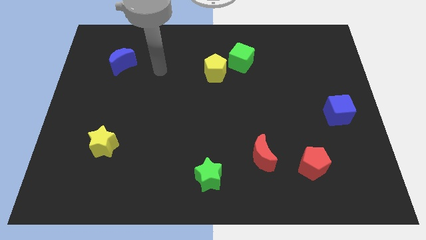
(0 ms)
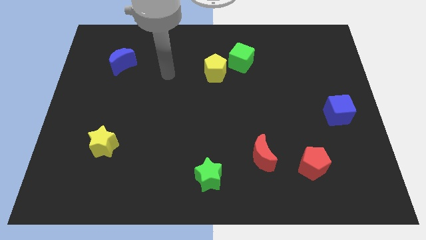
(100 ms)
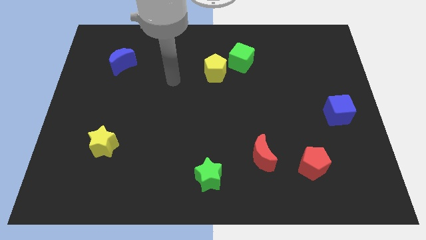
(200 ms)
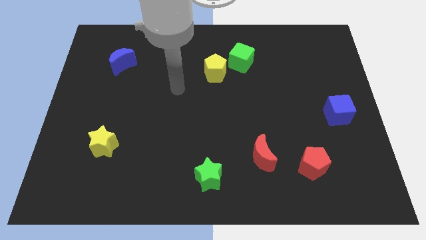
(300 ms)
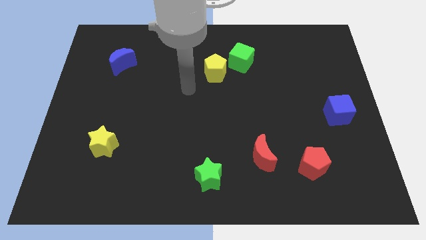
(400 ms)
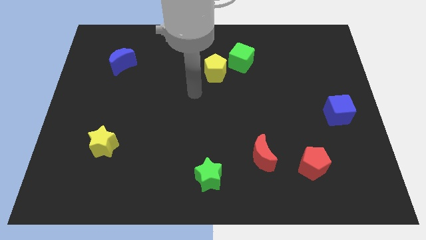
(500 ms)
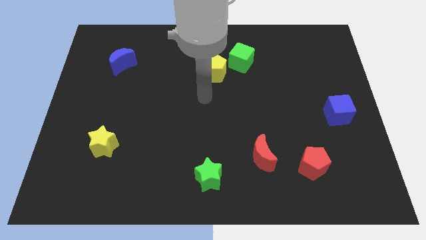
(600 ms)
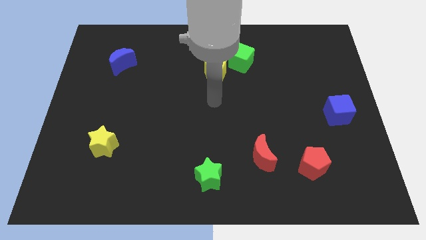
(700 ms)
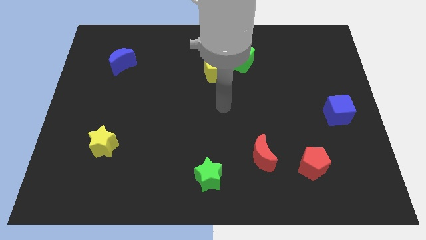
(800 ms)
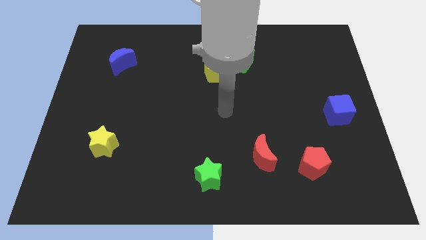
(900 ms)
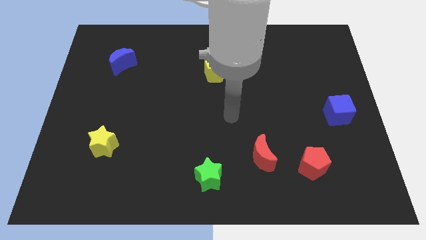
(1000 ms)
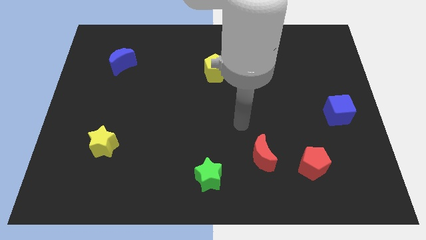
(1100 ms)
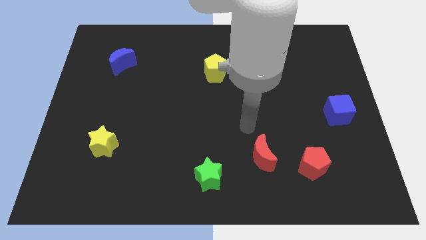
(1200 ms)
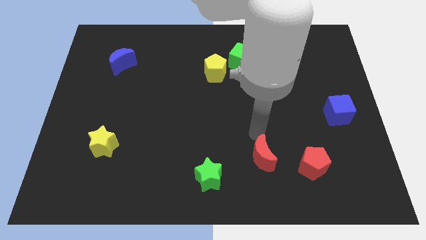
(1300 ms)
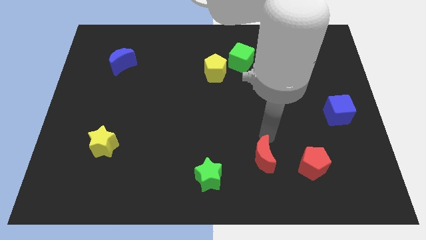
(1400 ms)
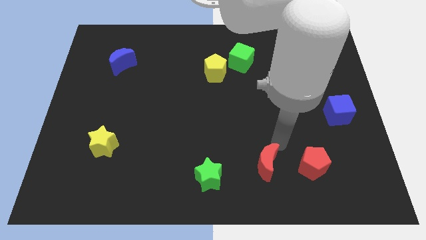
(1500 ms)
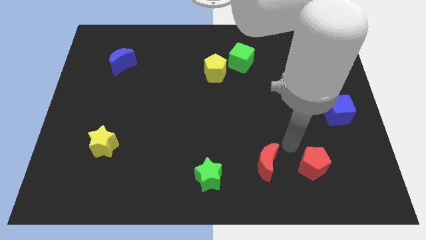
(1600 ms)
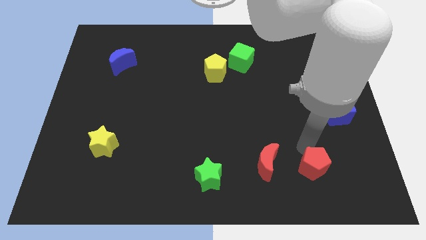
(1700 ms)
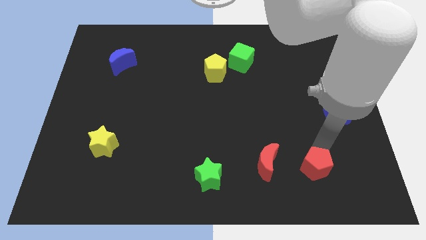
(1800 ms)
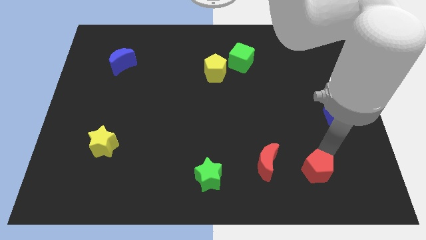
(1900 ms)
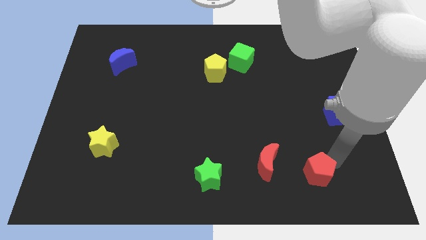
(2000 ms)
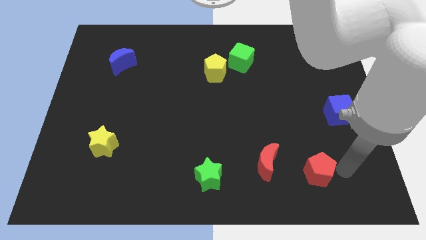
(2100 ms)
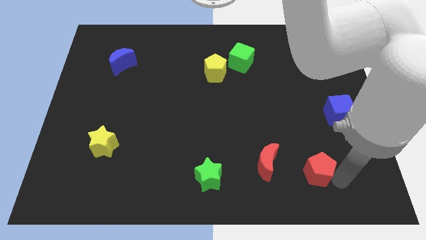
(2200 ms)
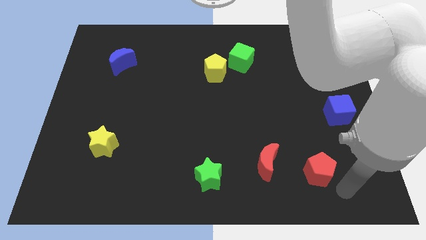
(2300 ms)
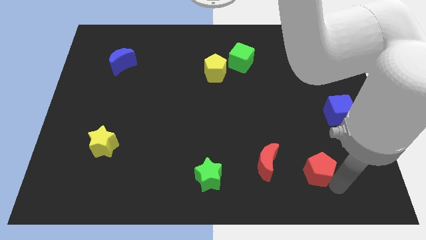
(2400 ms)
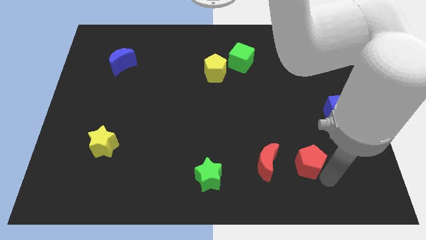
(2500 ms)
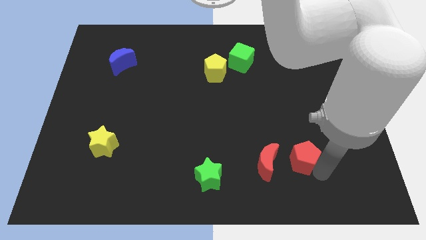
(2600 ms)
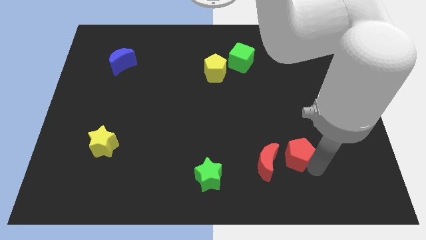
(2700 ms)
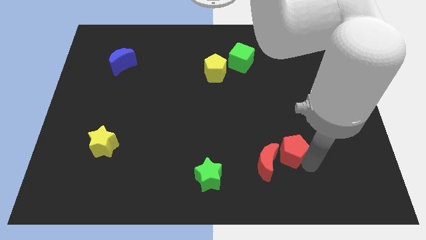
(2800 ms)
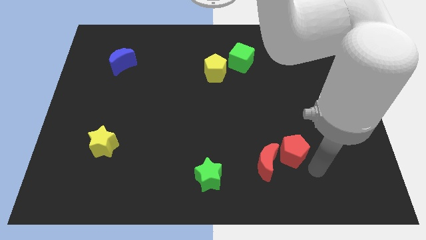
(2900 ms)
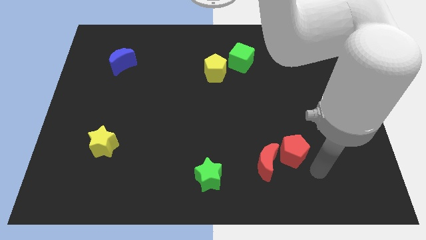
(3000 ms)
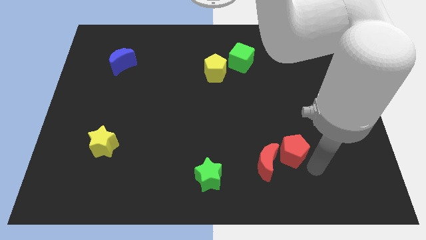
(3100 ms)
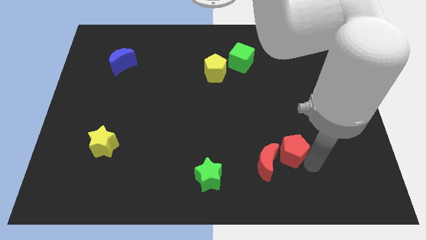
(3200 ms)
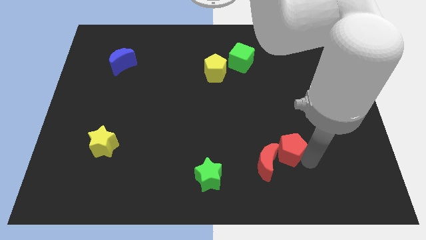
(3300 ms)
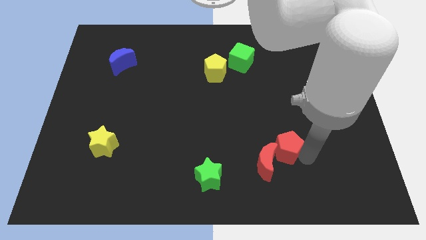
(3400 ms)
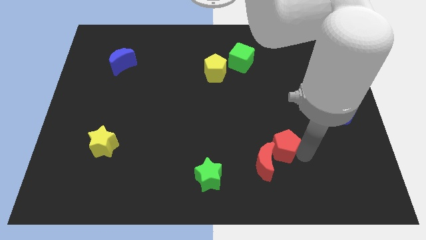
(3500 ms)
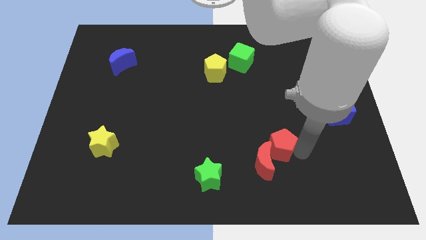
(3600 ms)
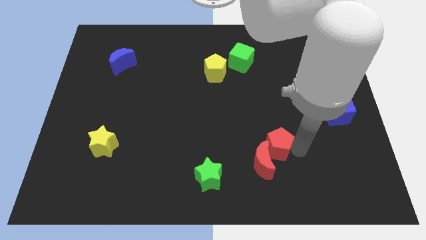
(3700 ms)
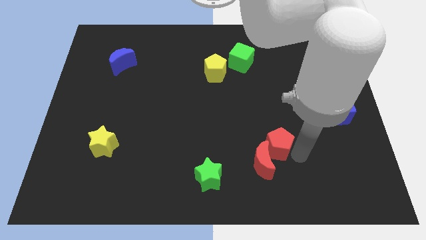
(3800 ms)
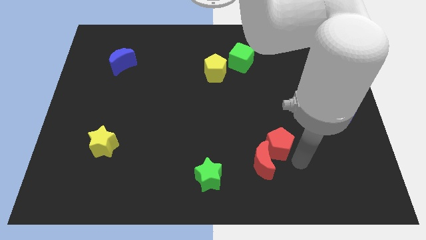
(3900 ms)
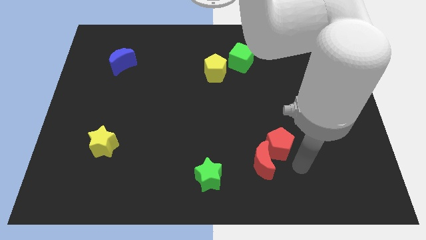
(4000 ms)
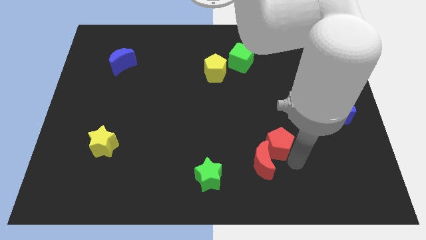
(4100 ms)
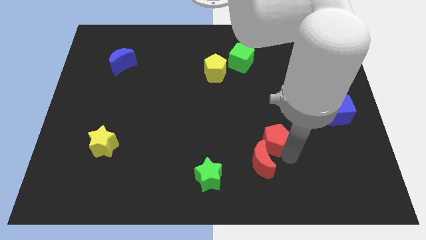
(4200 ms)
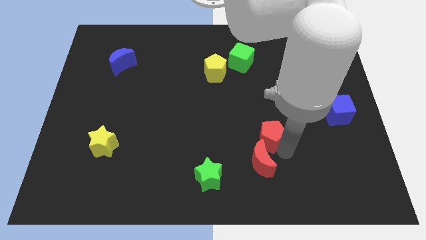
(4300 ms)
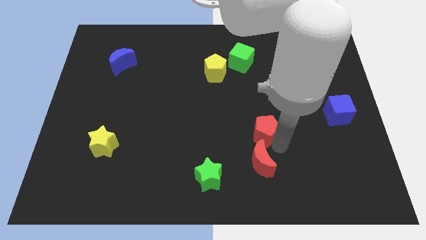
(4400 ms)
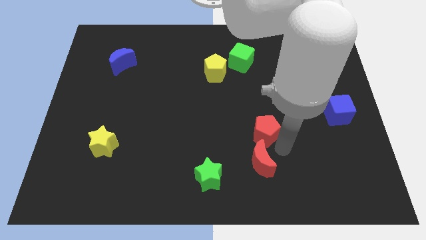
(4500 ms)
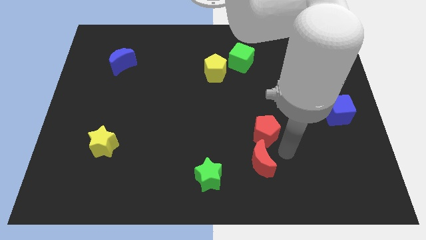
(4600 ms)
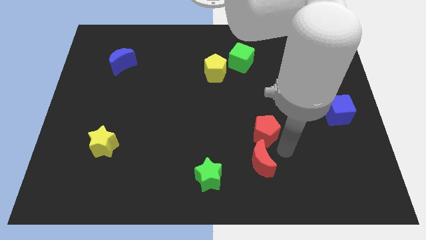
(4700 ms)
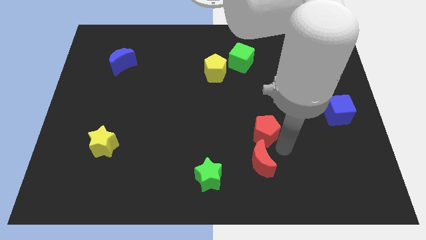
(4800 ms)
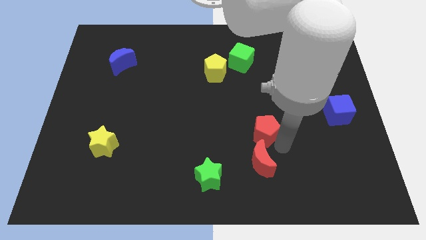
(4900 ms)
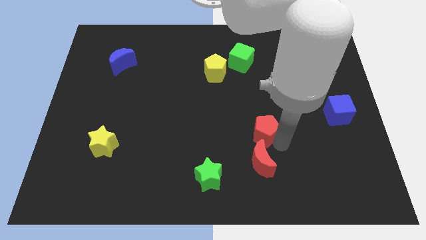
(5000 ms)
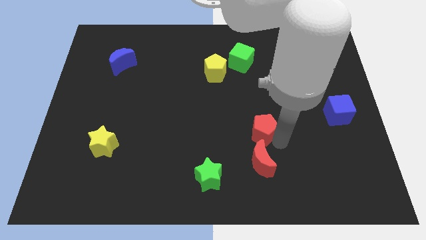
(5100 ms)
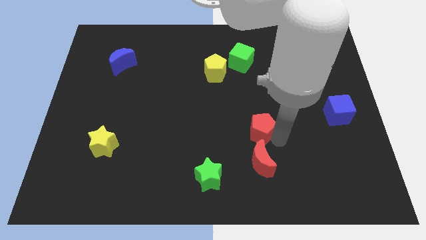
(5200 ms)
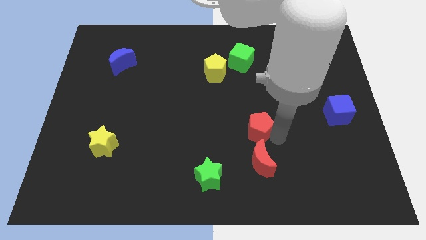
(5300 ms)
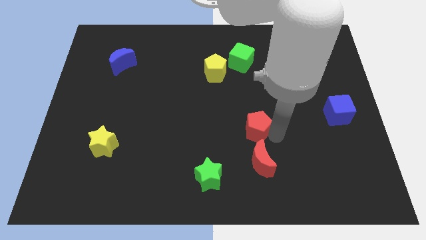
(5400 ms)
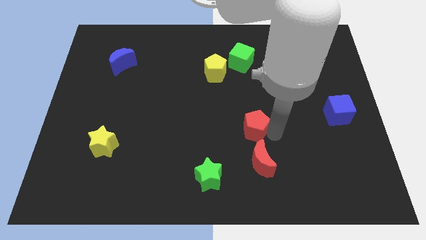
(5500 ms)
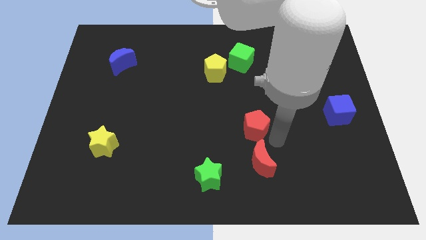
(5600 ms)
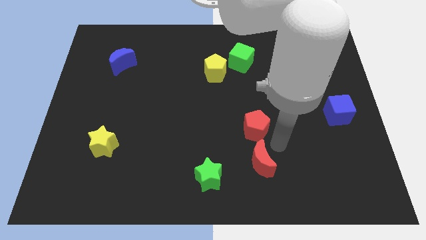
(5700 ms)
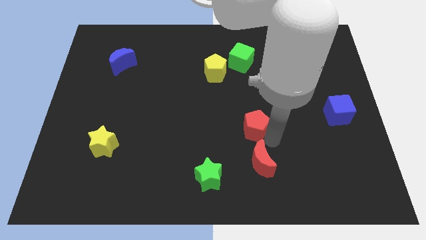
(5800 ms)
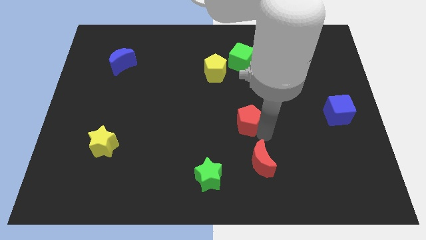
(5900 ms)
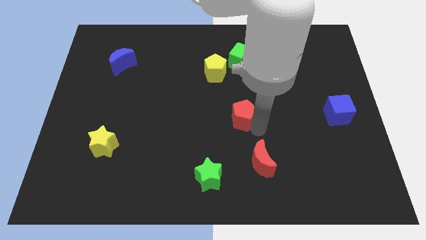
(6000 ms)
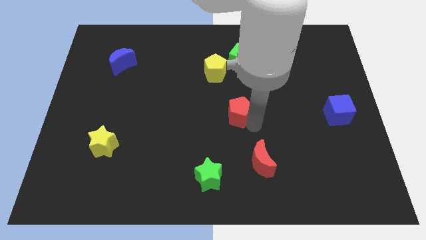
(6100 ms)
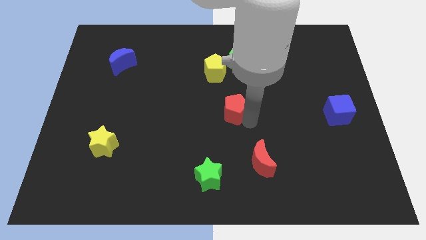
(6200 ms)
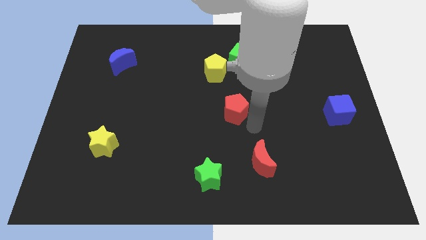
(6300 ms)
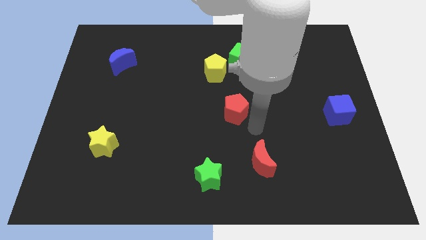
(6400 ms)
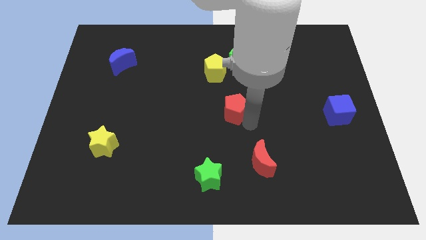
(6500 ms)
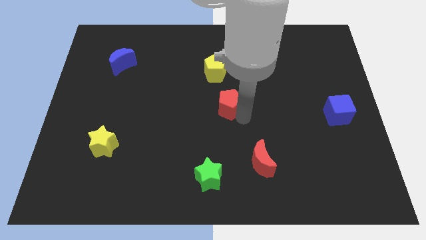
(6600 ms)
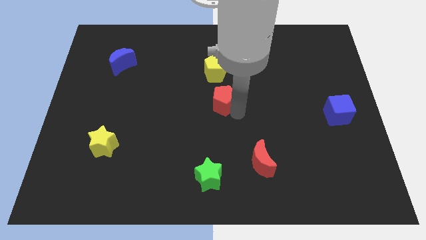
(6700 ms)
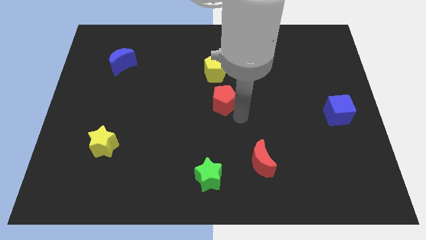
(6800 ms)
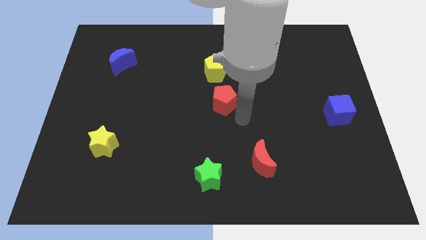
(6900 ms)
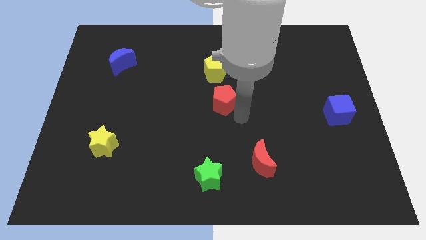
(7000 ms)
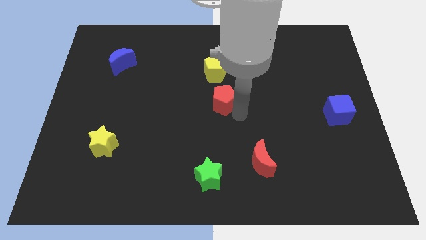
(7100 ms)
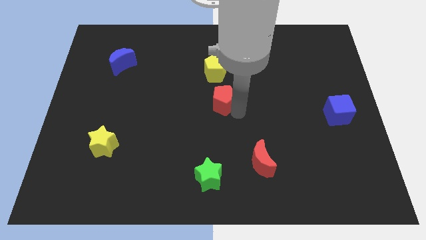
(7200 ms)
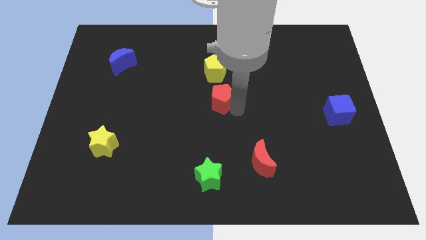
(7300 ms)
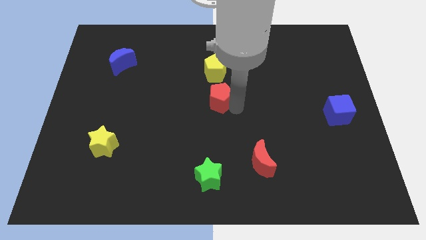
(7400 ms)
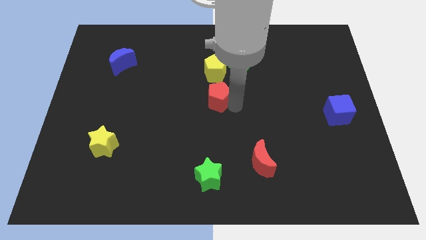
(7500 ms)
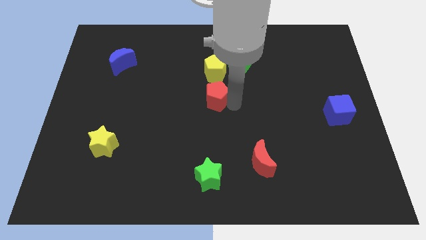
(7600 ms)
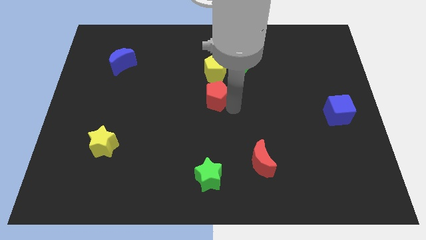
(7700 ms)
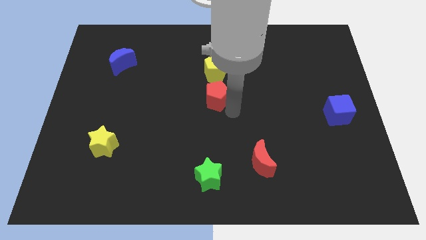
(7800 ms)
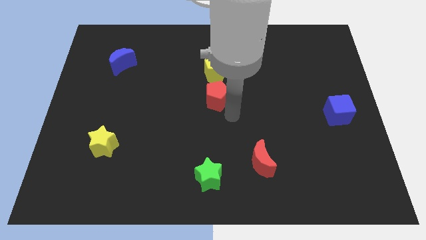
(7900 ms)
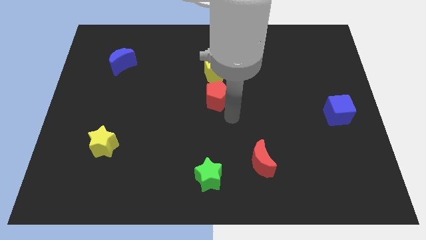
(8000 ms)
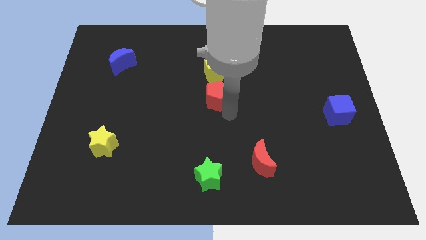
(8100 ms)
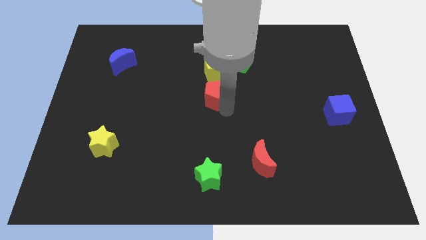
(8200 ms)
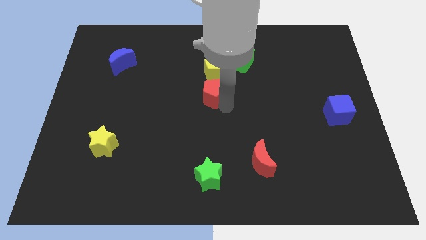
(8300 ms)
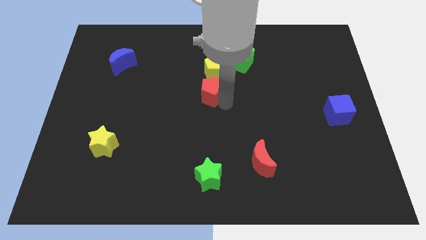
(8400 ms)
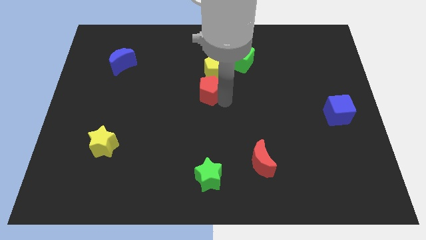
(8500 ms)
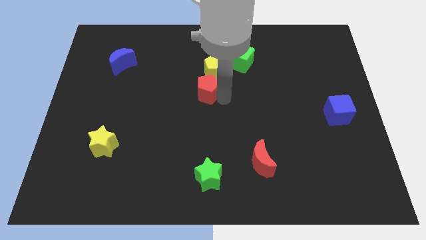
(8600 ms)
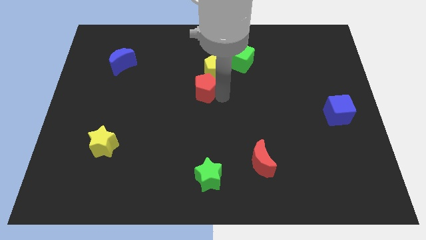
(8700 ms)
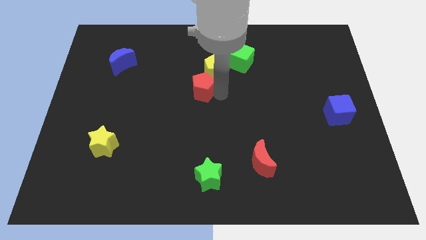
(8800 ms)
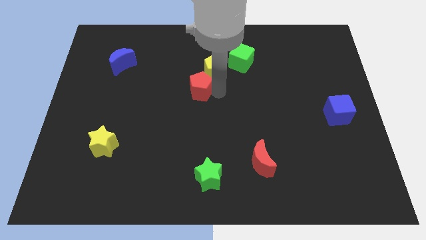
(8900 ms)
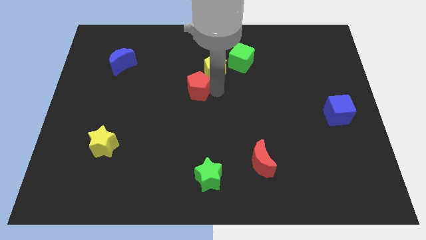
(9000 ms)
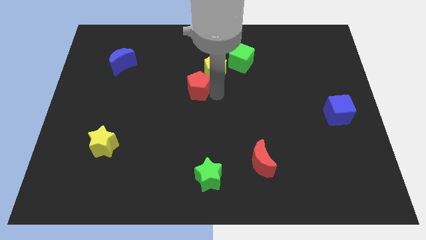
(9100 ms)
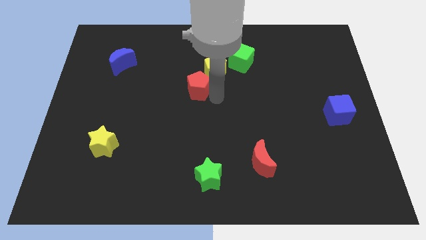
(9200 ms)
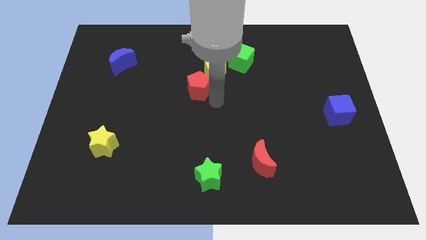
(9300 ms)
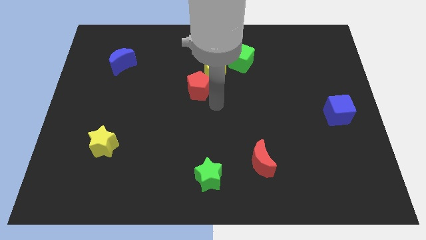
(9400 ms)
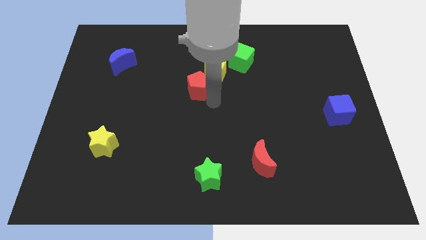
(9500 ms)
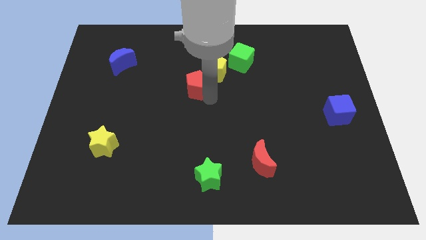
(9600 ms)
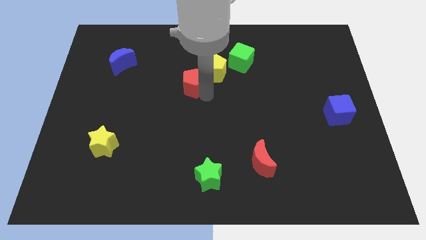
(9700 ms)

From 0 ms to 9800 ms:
push the red pentagon to the left side of the yellow pentagon
